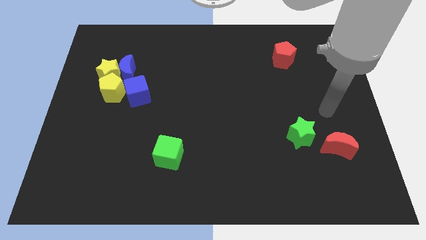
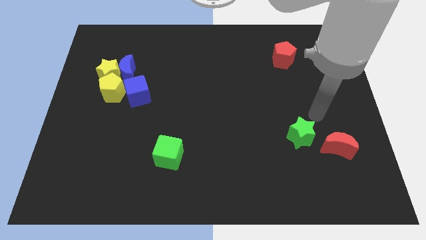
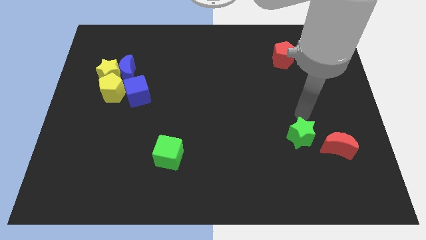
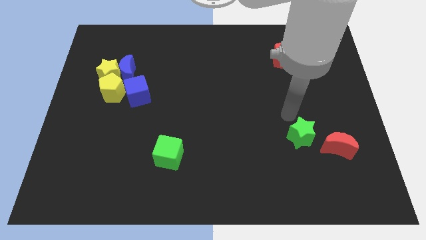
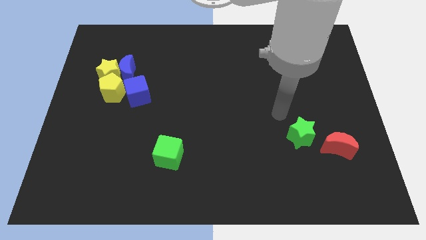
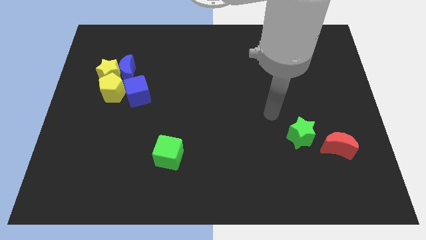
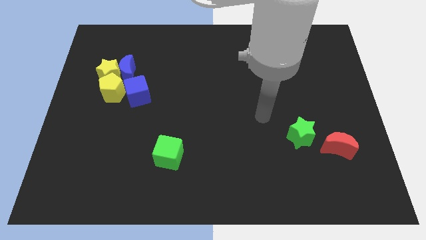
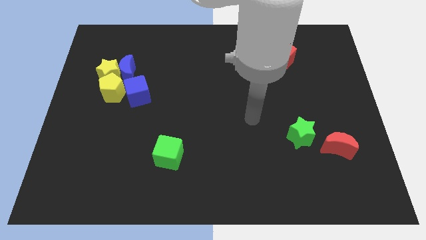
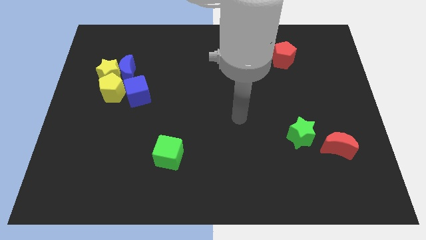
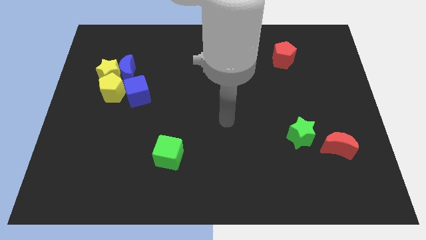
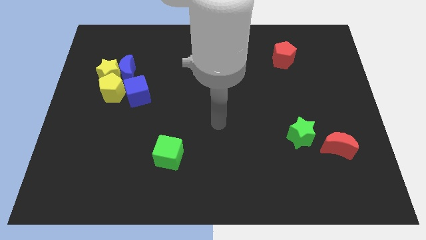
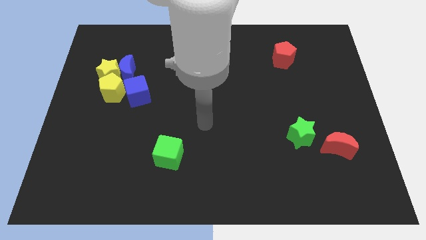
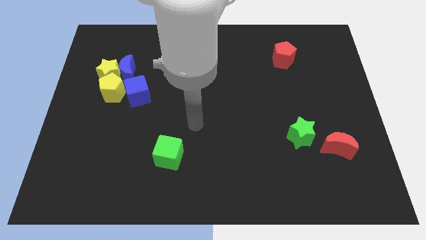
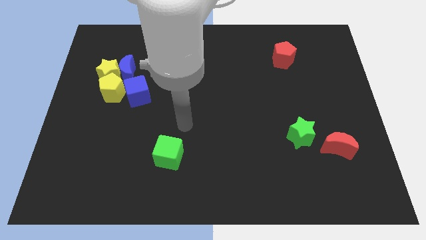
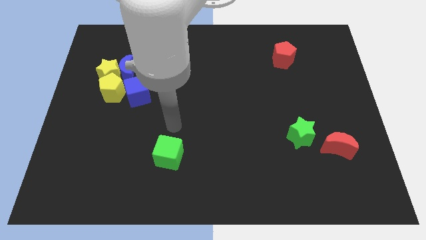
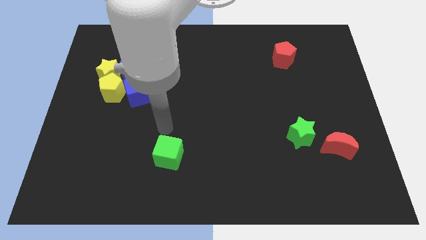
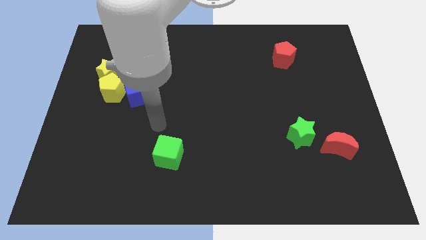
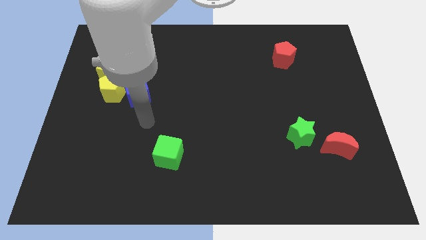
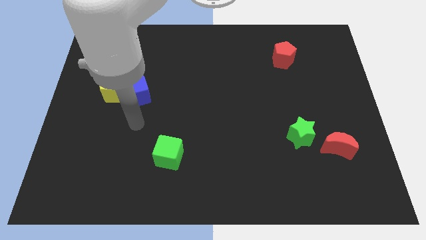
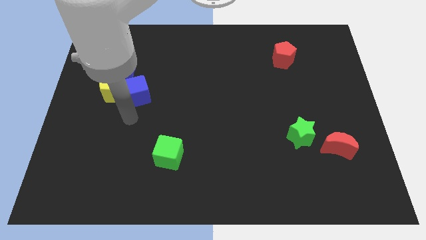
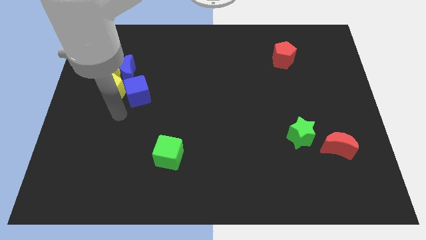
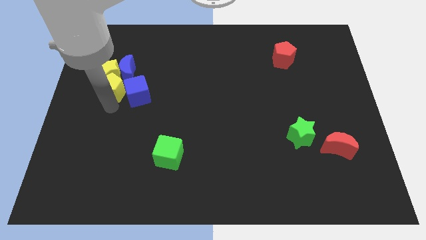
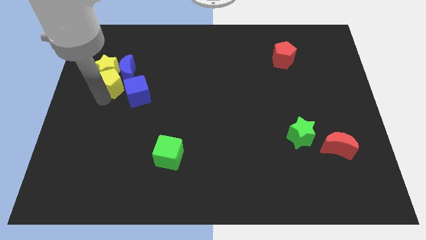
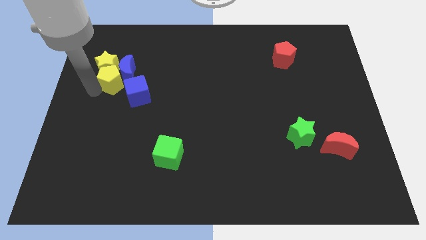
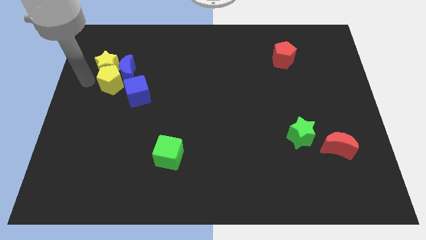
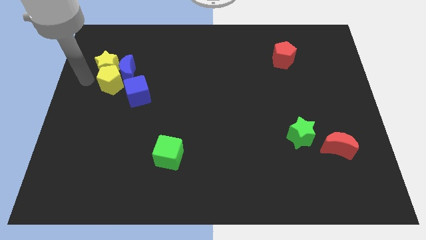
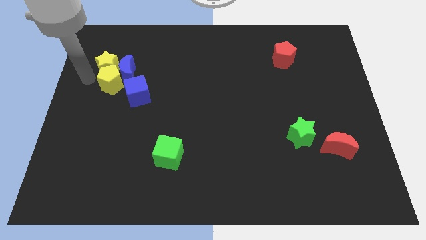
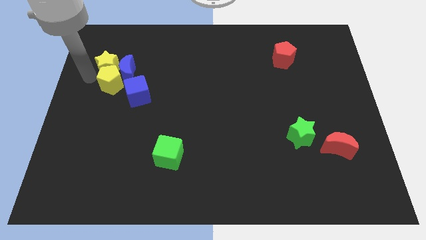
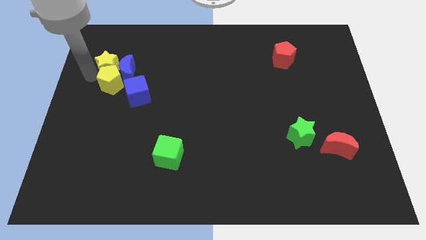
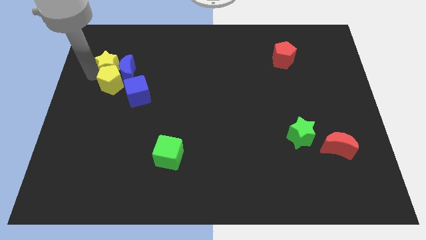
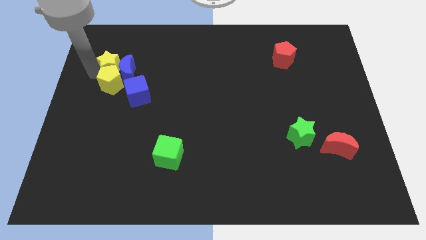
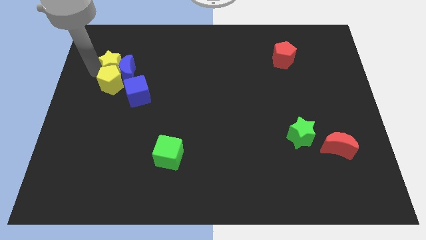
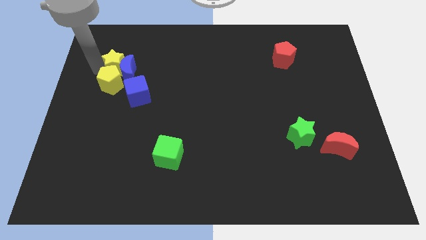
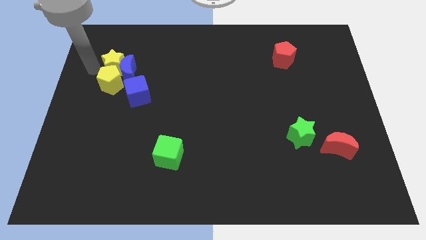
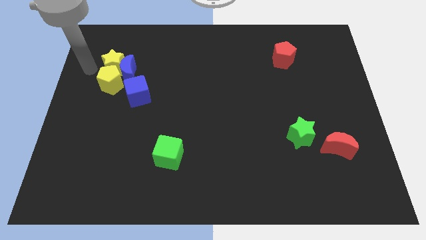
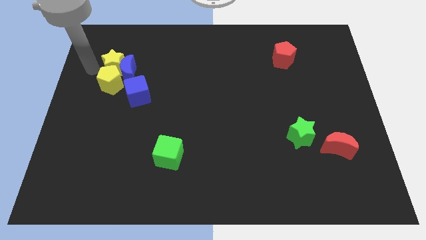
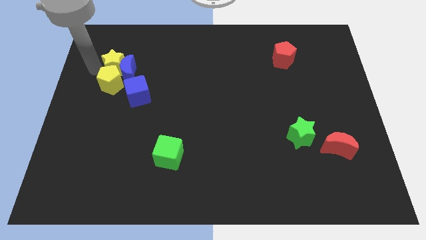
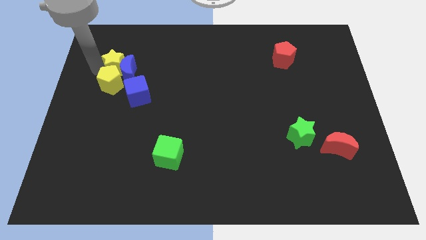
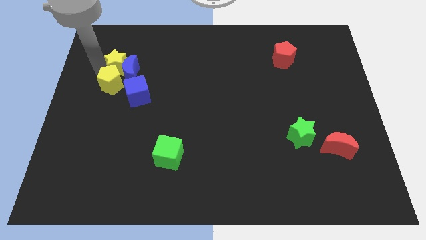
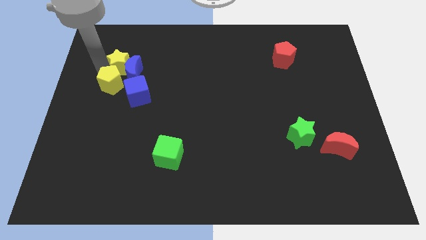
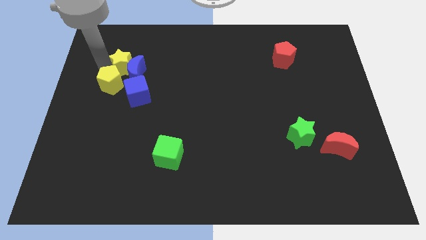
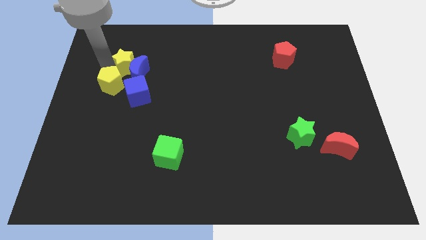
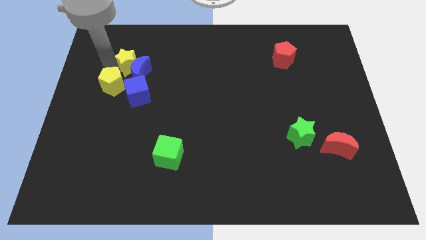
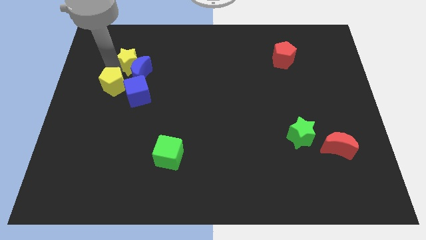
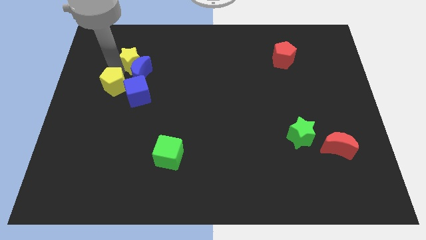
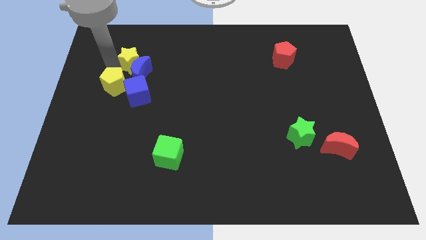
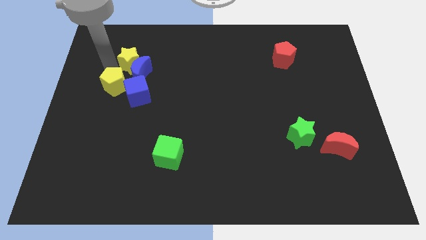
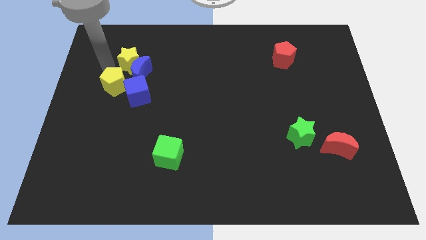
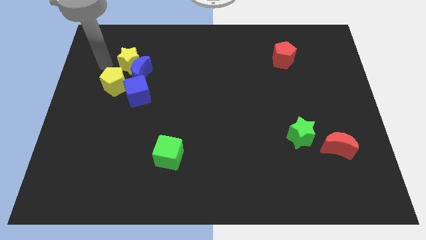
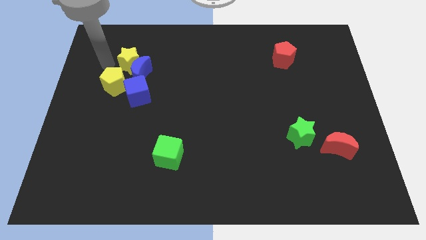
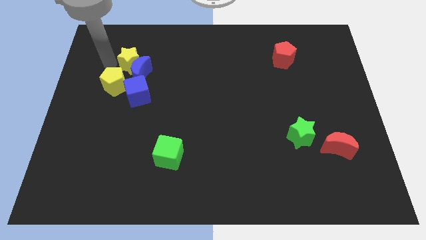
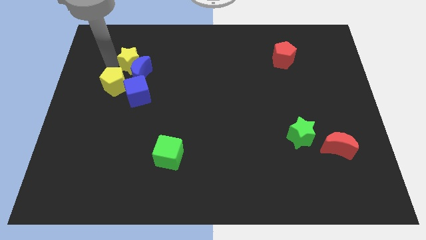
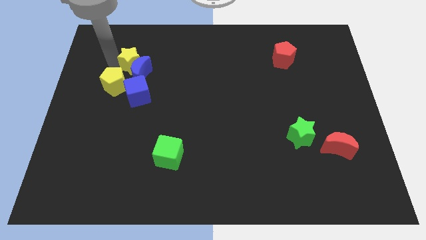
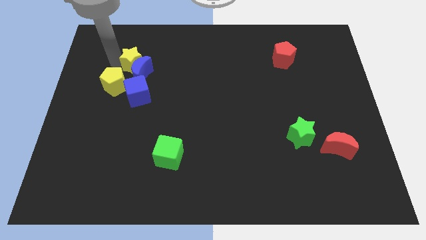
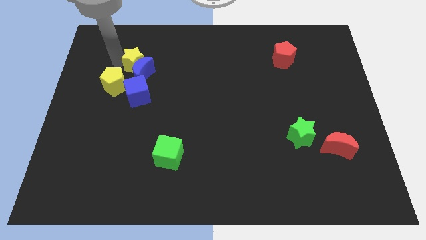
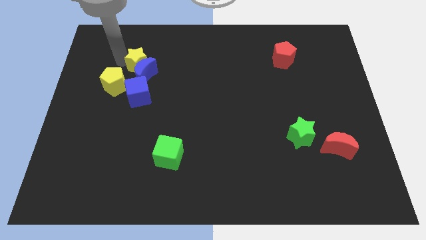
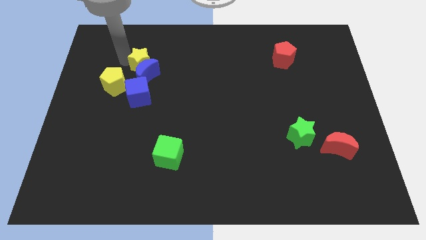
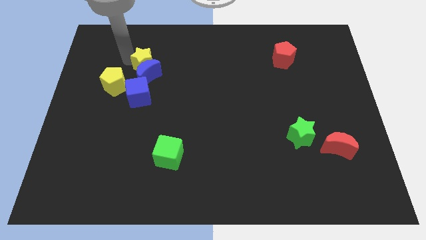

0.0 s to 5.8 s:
push the yellow star to the right somewhat

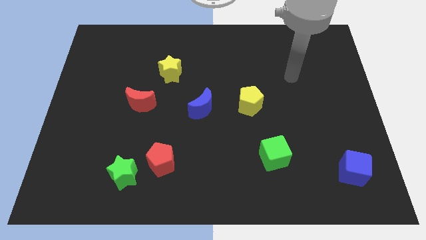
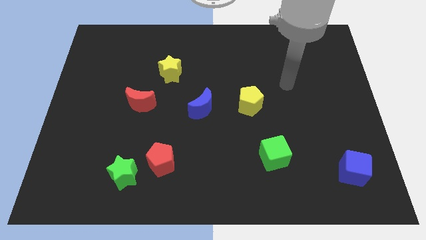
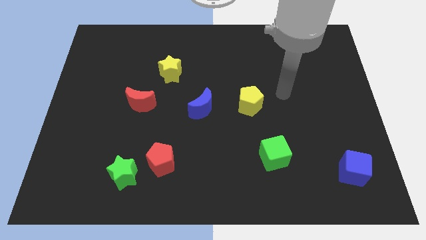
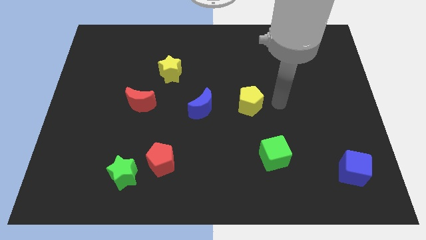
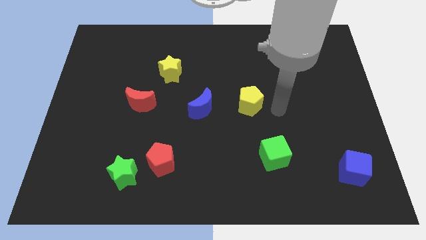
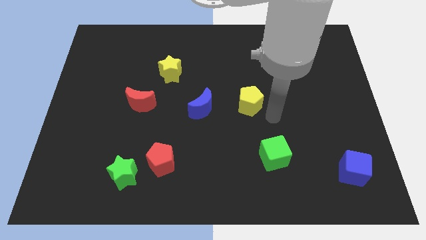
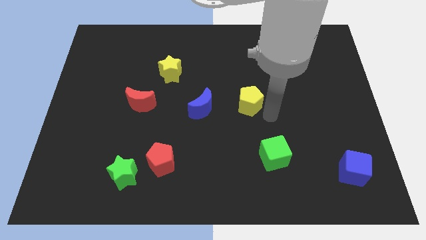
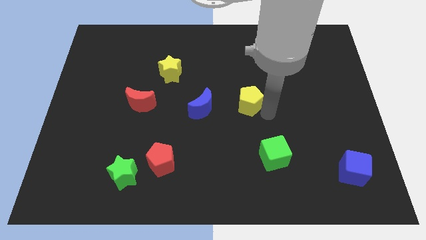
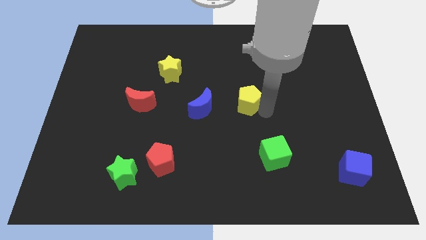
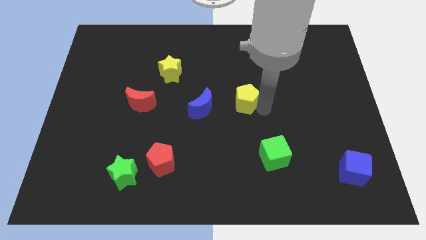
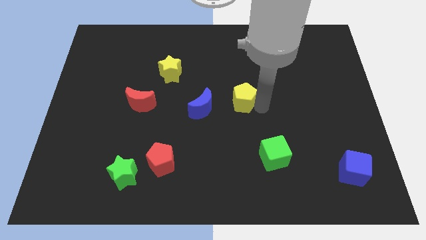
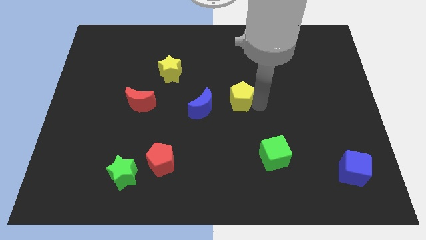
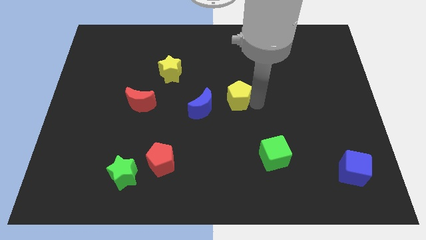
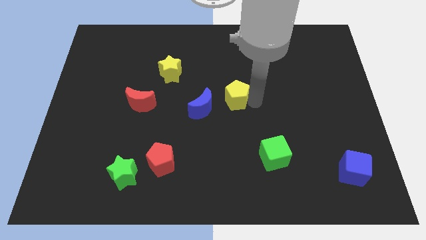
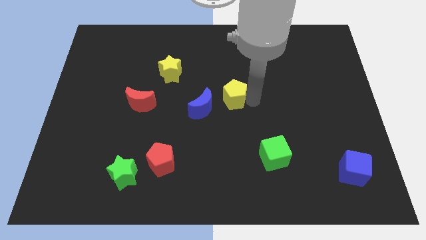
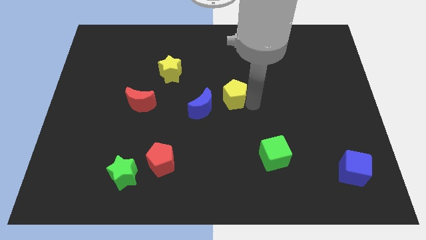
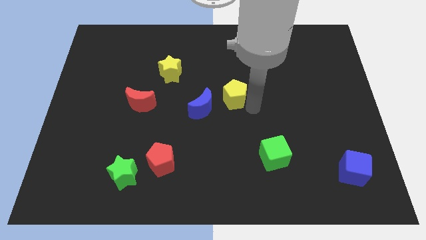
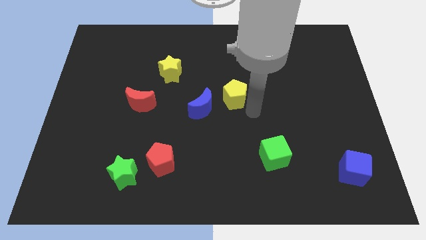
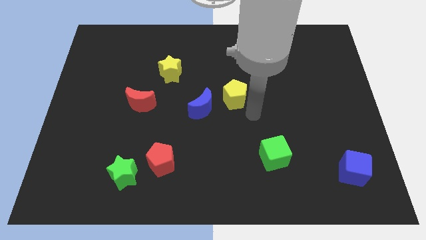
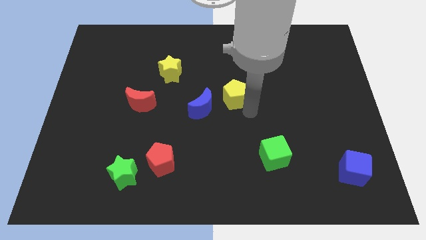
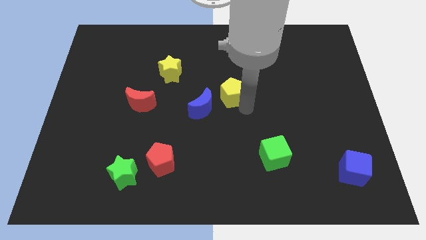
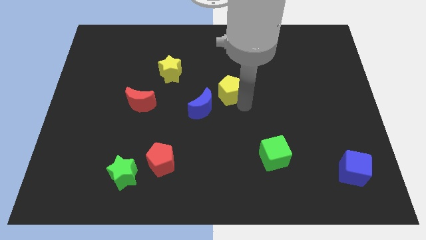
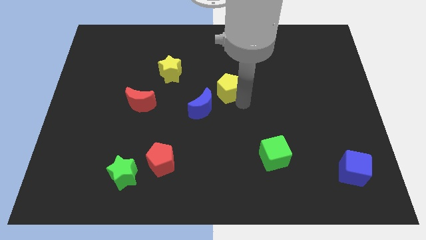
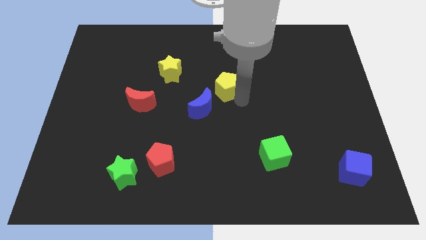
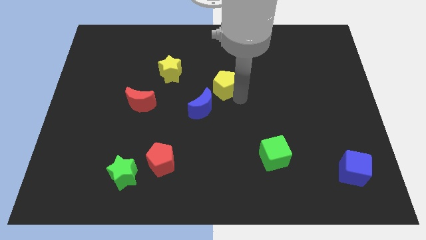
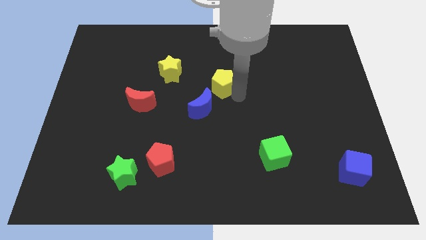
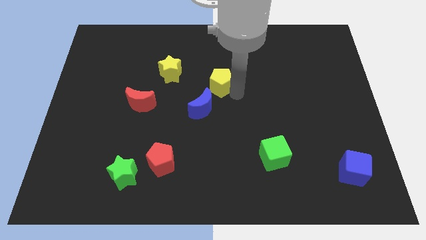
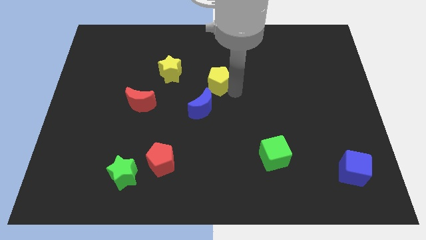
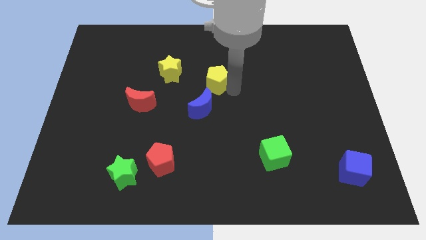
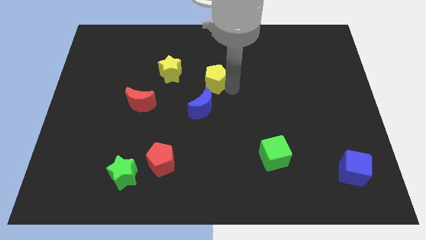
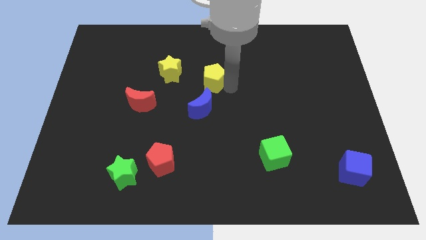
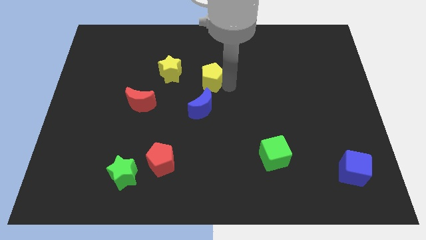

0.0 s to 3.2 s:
slightly move the yellow pentagon to the left
